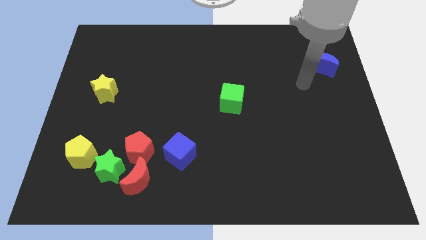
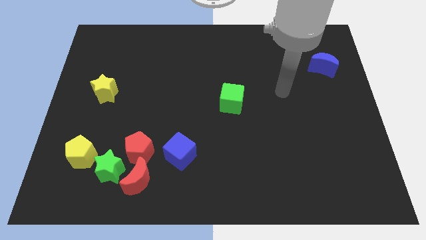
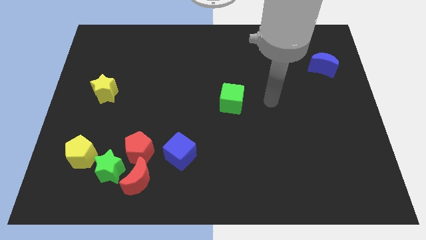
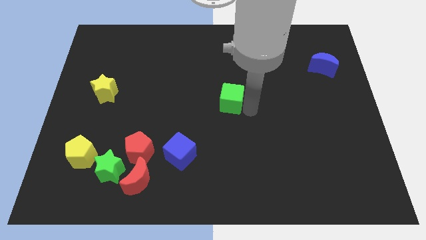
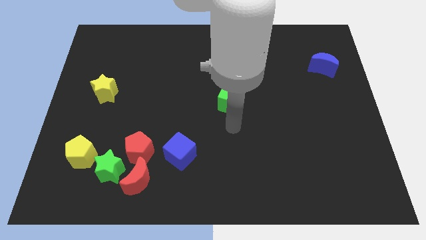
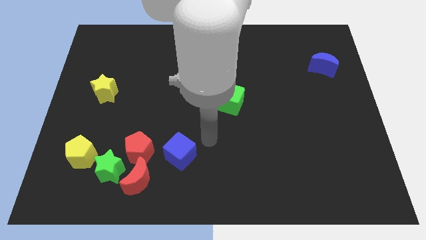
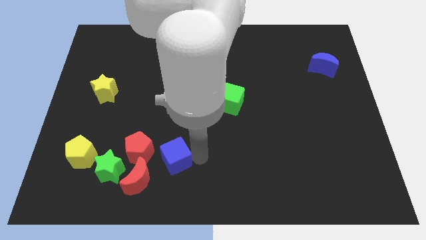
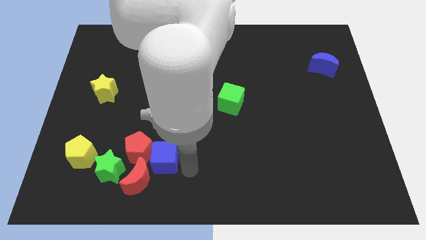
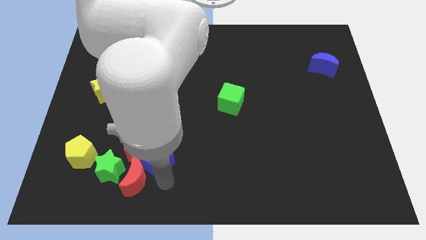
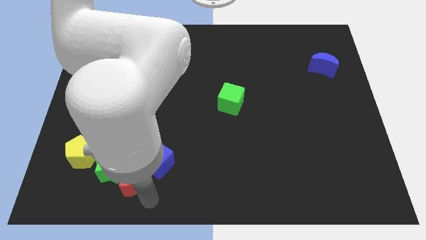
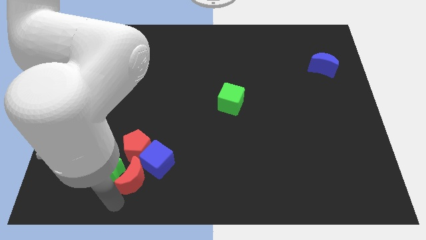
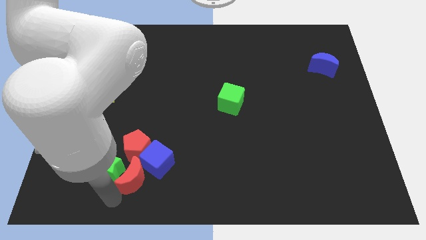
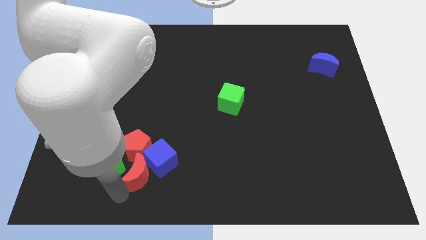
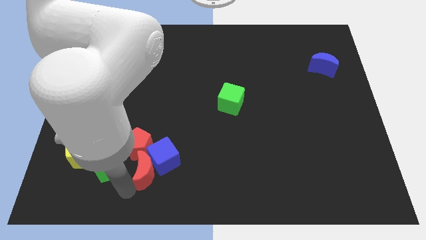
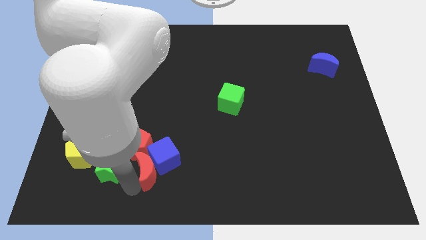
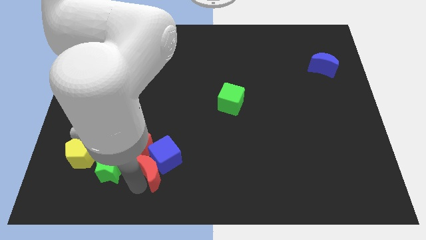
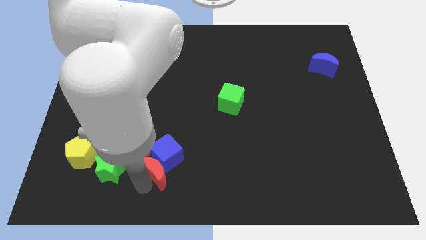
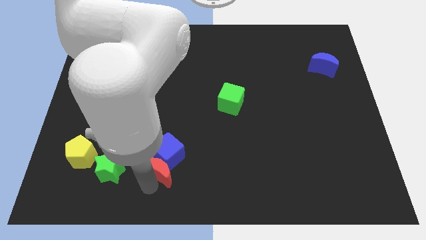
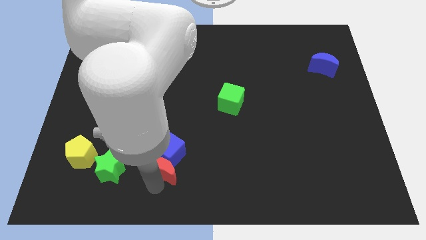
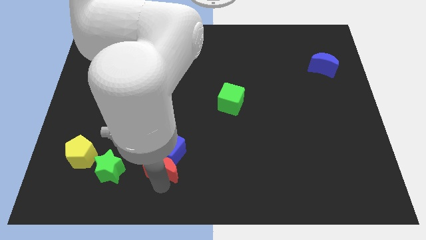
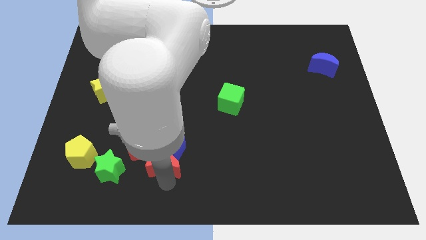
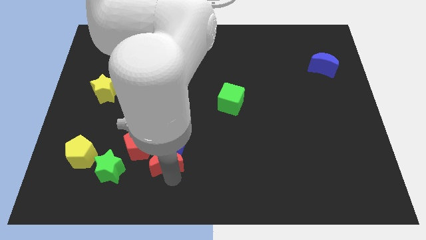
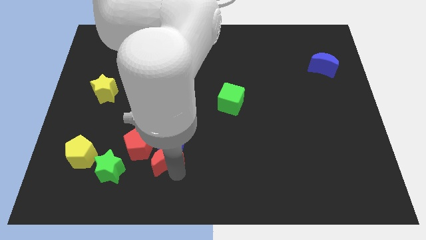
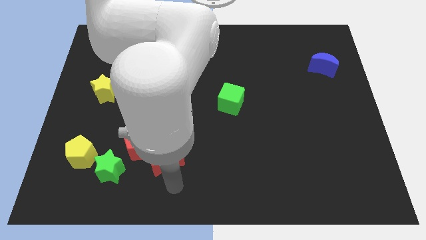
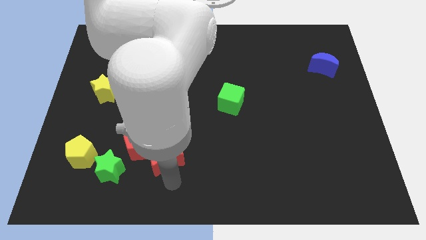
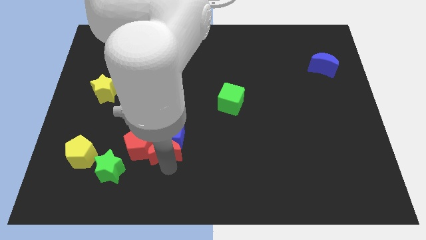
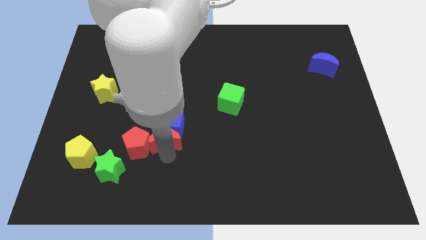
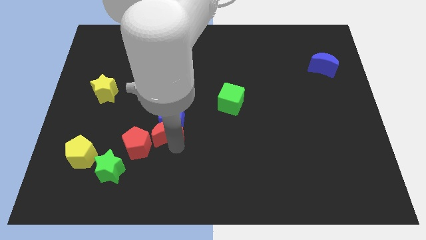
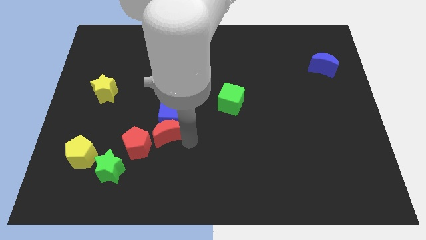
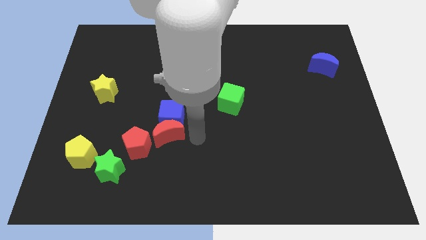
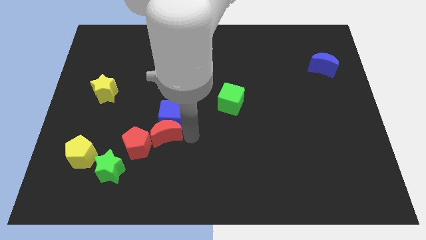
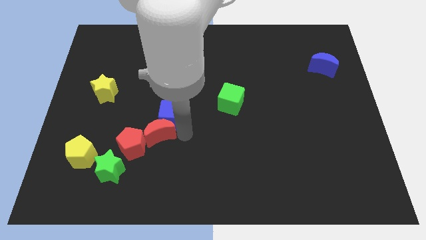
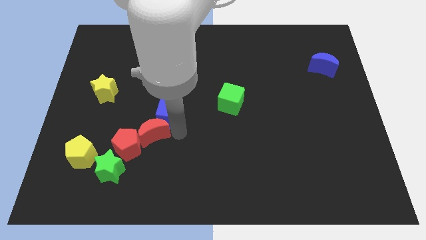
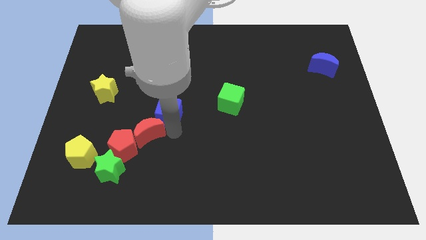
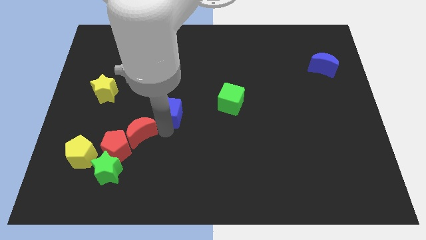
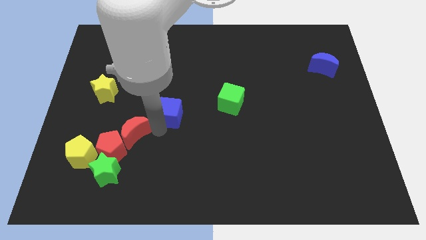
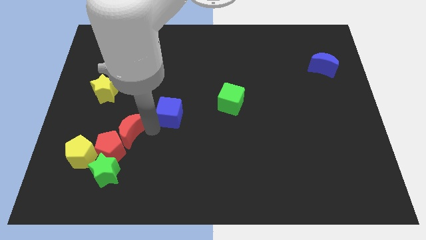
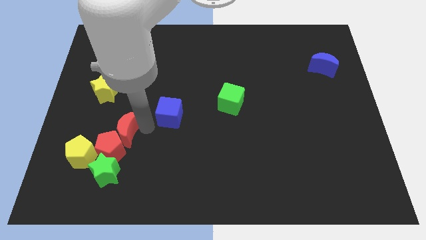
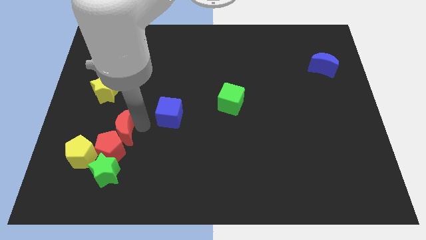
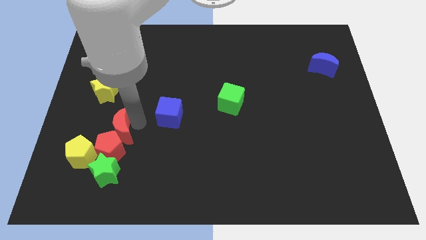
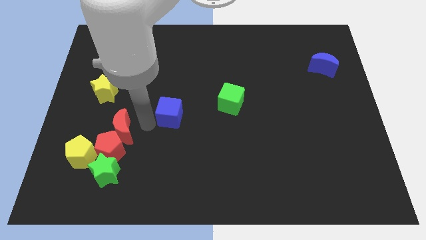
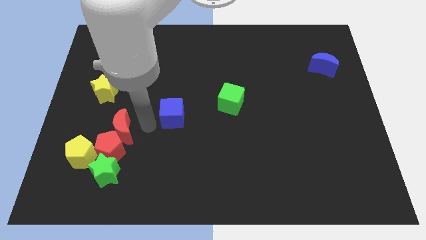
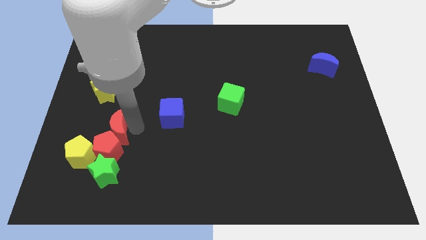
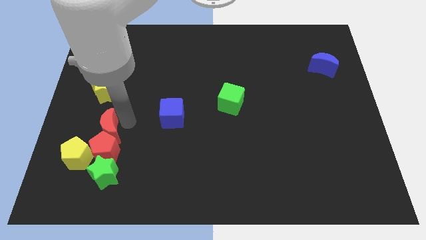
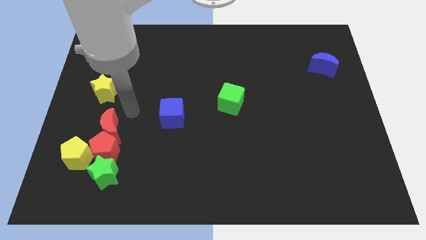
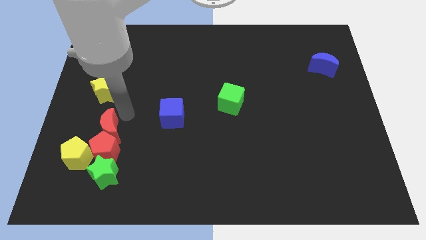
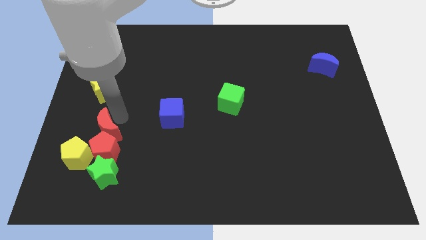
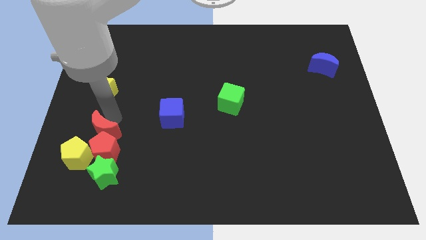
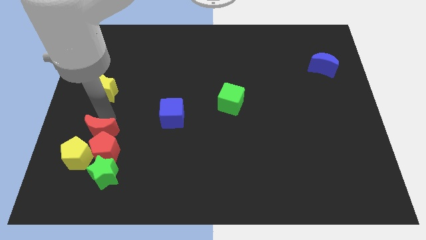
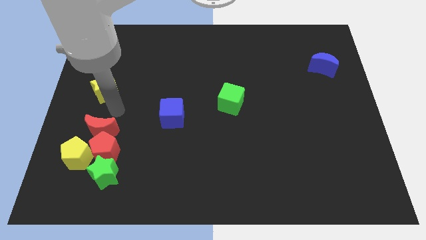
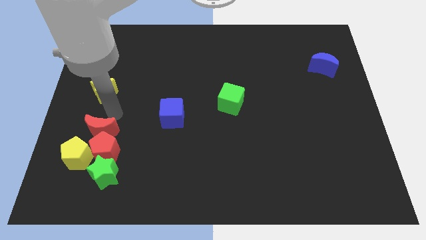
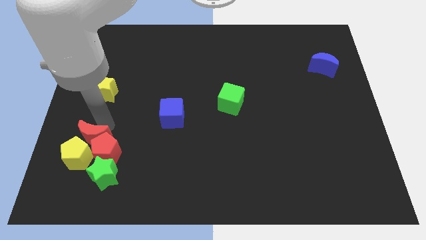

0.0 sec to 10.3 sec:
slide the red moon diagonally up and to the left of the green star

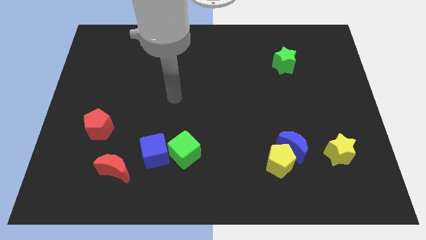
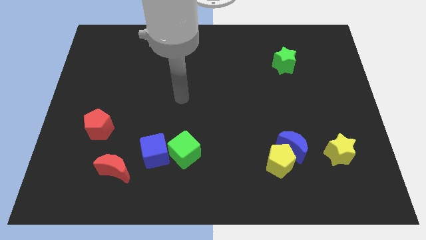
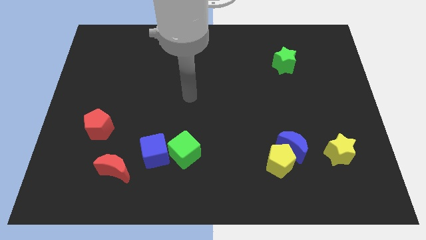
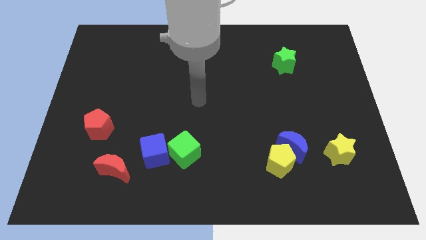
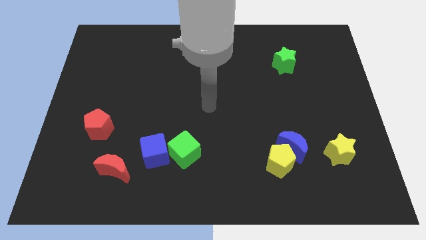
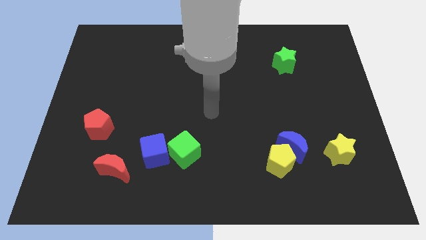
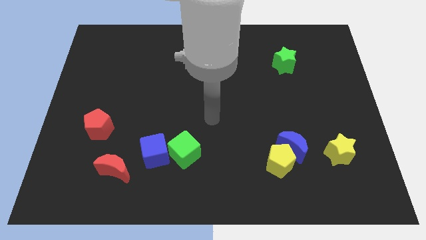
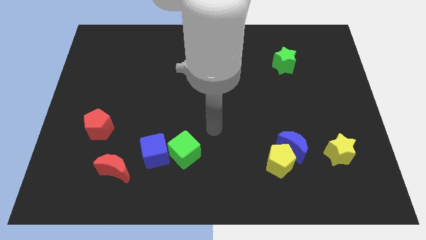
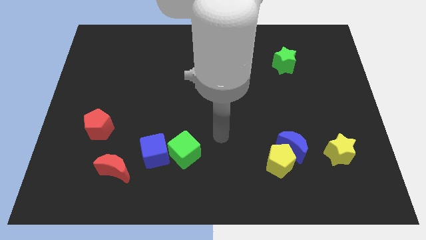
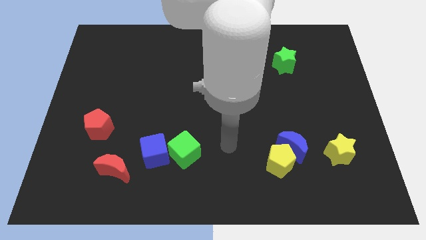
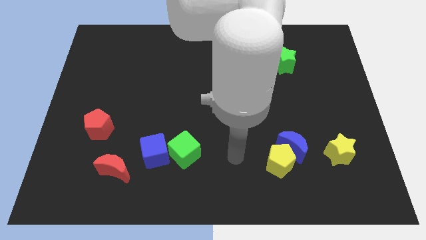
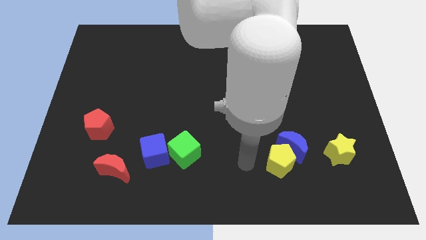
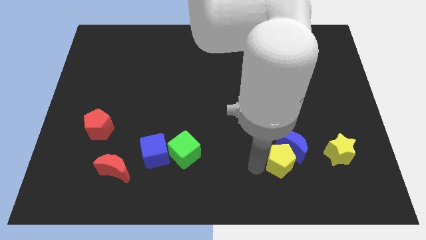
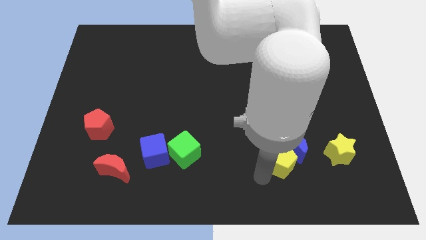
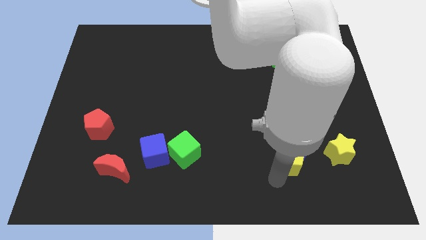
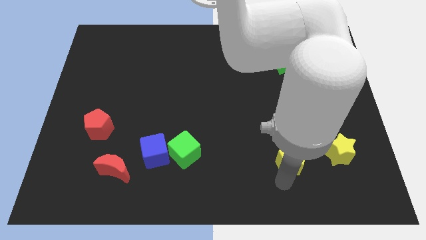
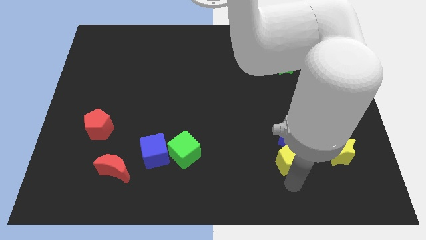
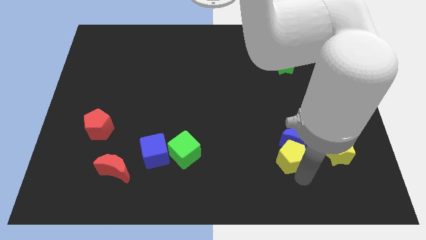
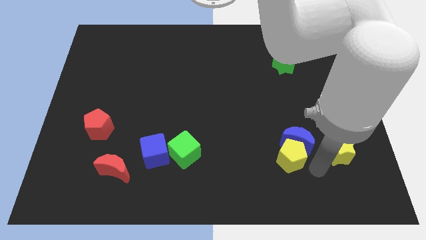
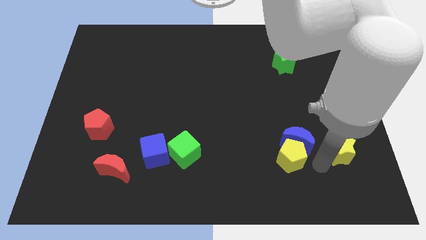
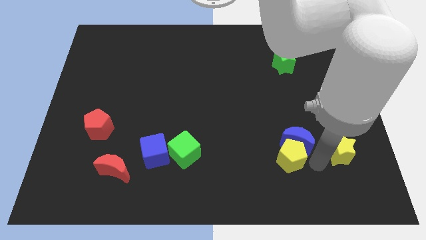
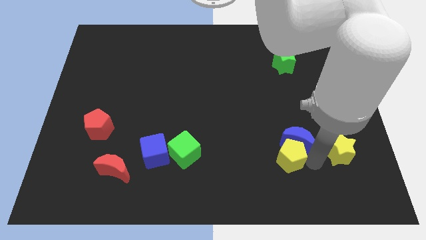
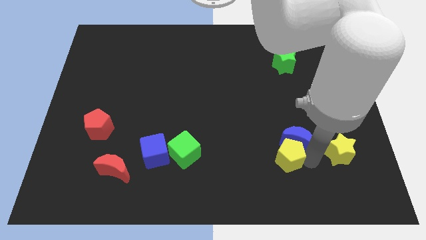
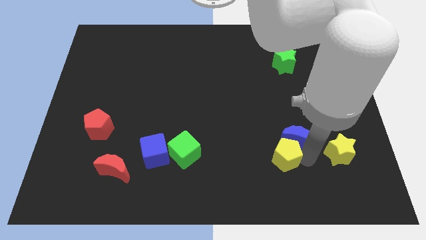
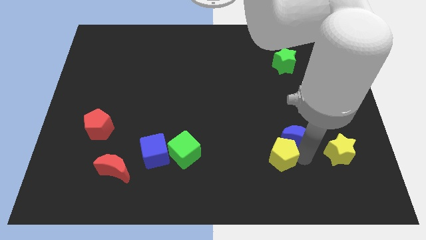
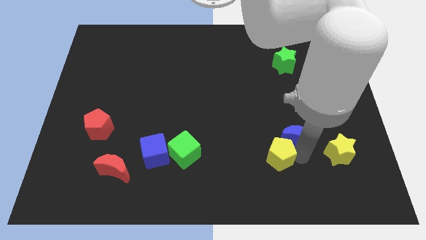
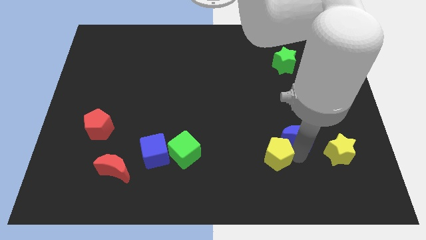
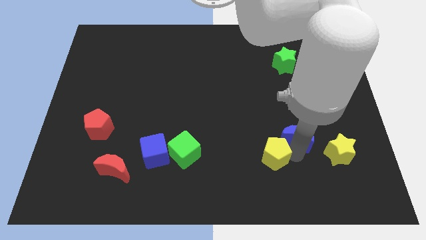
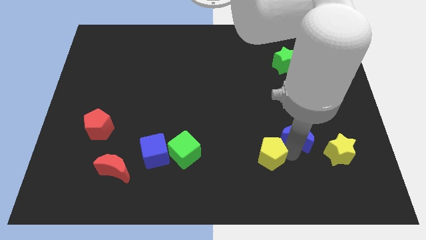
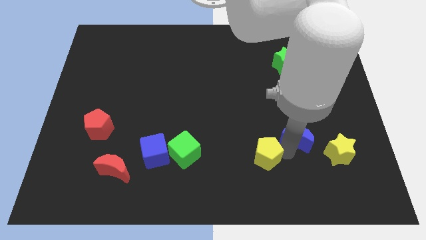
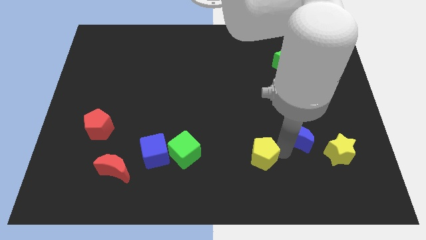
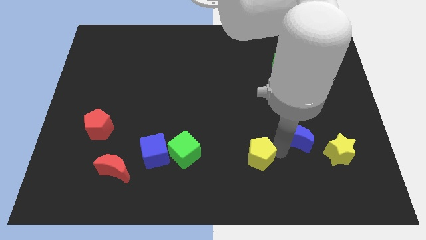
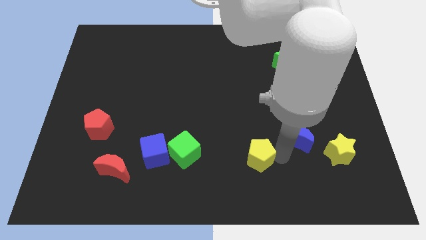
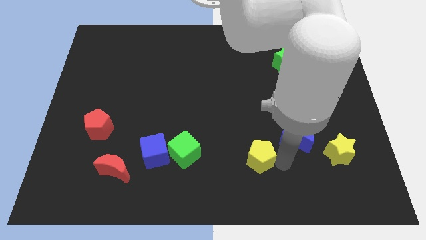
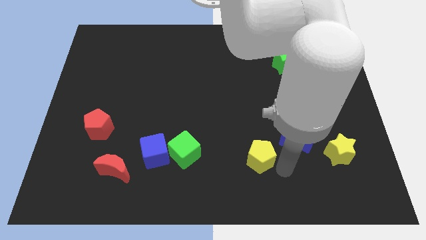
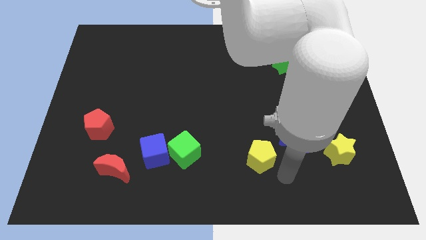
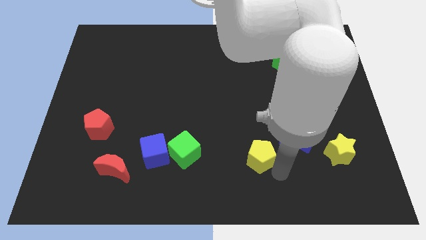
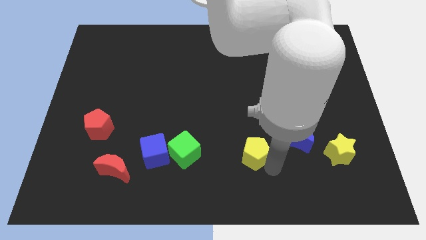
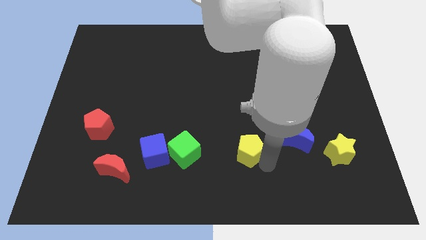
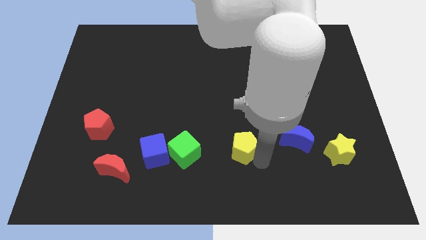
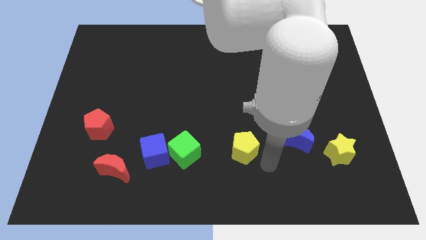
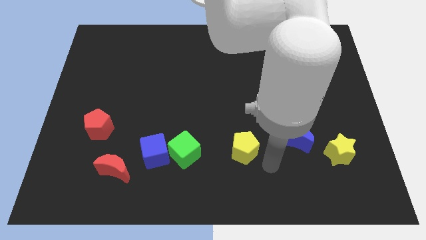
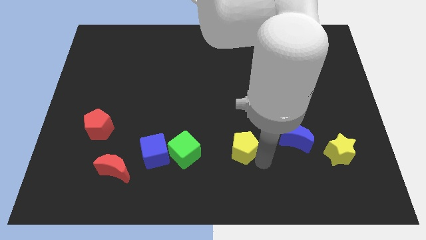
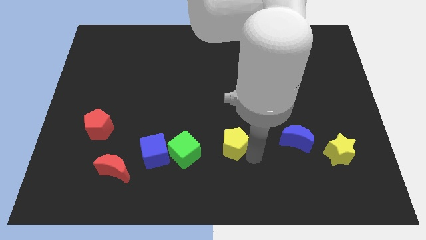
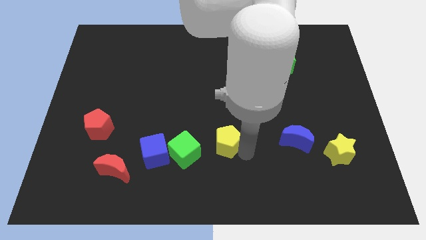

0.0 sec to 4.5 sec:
move the yellow pentagon to the top right of the green cube
